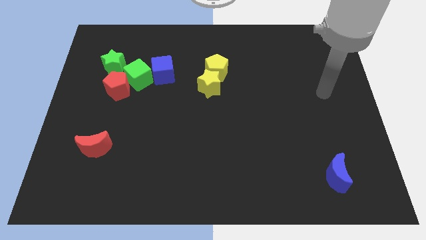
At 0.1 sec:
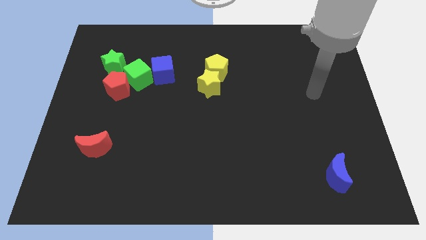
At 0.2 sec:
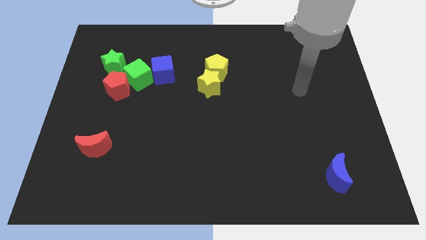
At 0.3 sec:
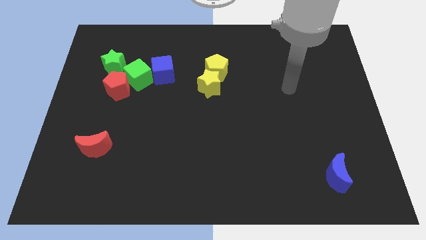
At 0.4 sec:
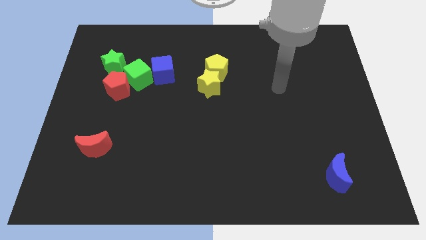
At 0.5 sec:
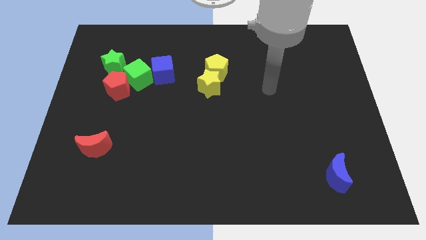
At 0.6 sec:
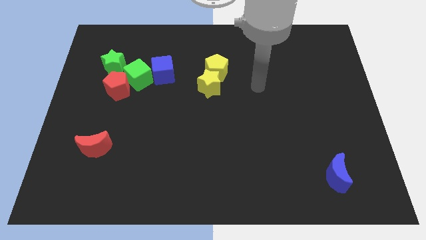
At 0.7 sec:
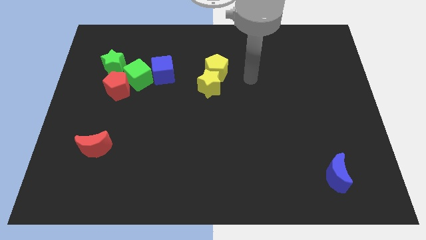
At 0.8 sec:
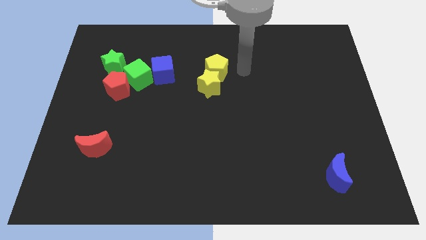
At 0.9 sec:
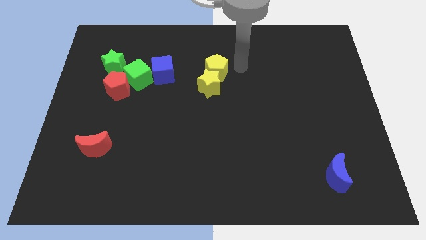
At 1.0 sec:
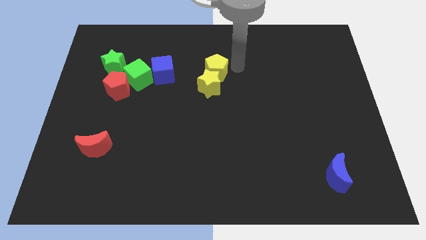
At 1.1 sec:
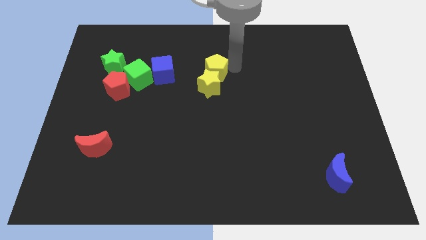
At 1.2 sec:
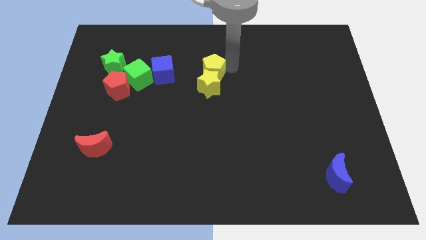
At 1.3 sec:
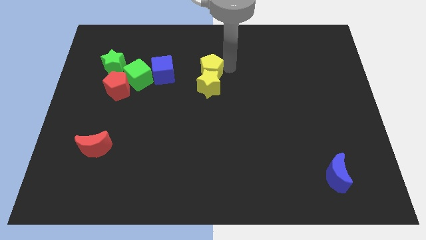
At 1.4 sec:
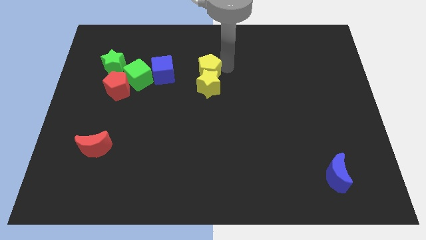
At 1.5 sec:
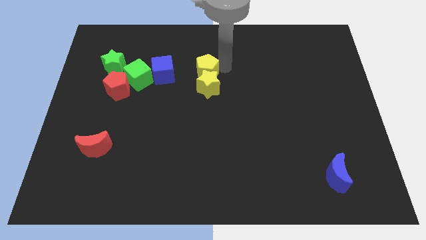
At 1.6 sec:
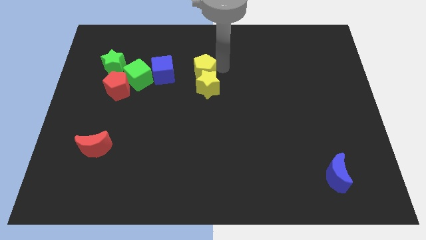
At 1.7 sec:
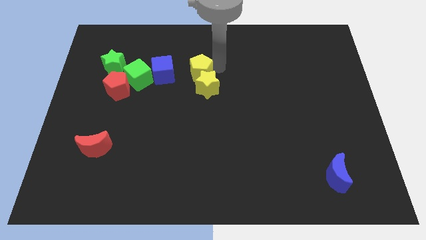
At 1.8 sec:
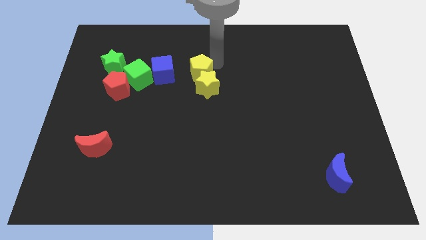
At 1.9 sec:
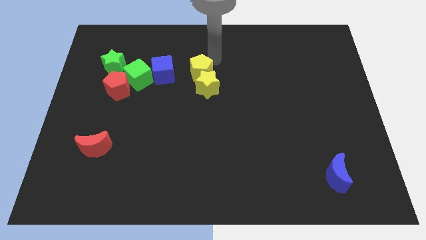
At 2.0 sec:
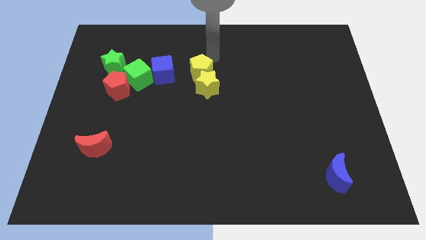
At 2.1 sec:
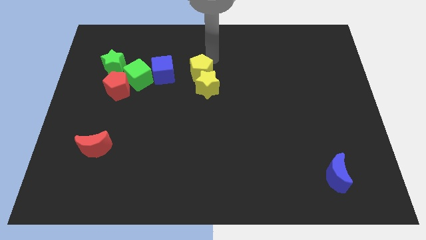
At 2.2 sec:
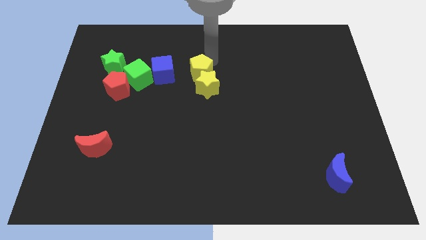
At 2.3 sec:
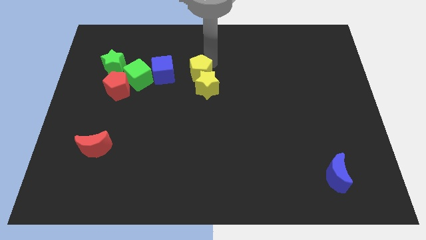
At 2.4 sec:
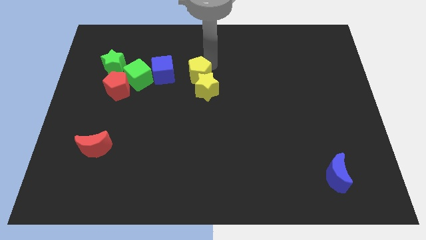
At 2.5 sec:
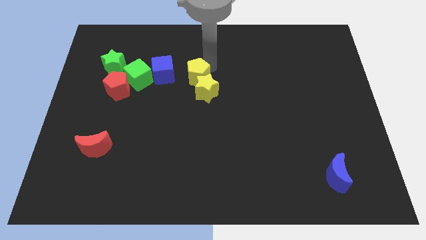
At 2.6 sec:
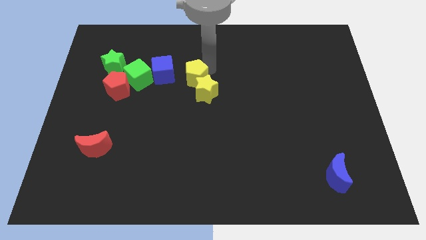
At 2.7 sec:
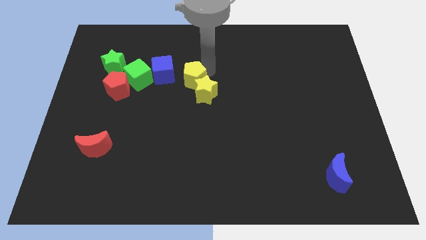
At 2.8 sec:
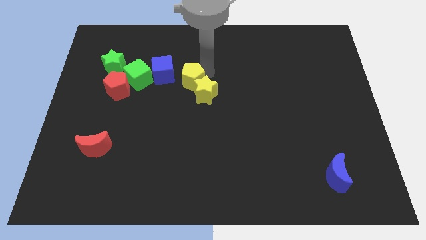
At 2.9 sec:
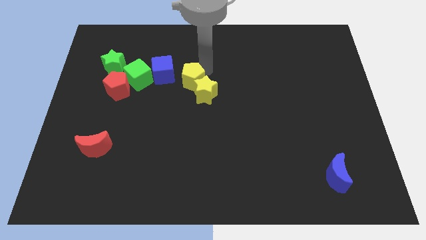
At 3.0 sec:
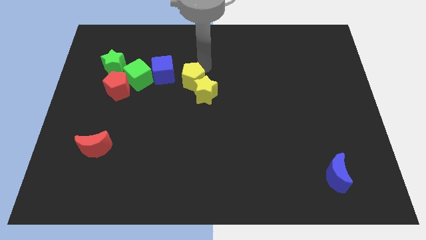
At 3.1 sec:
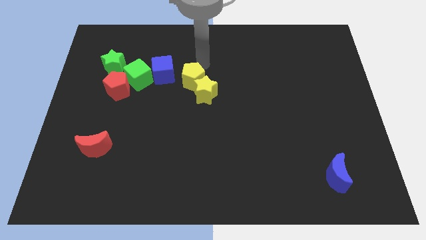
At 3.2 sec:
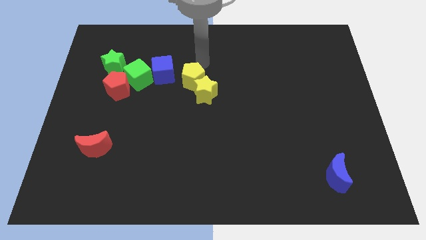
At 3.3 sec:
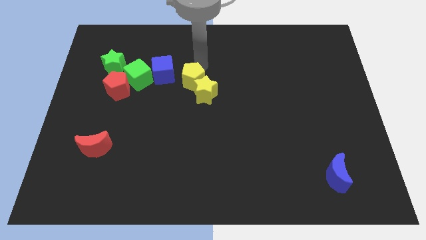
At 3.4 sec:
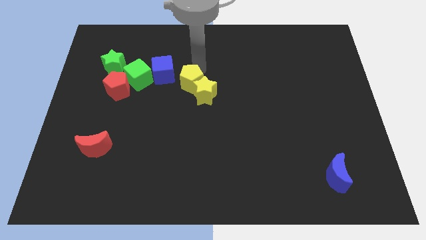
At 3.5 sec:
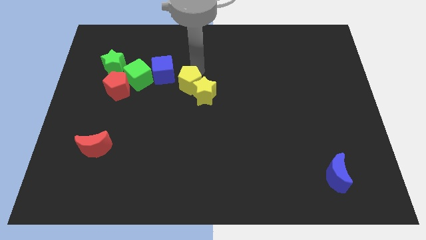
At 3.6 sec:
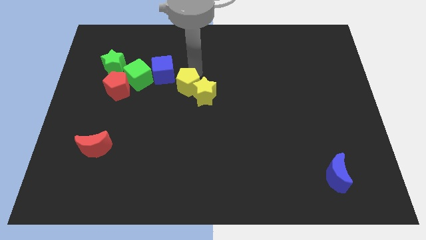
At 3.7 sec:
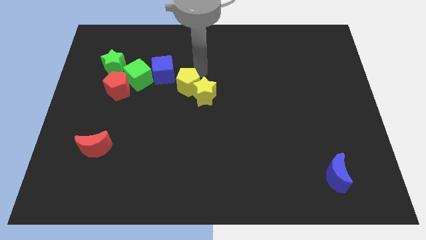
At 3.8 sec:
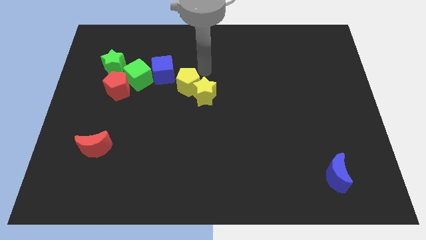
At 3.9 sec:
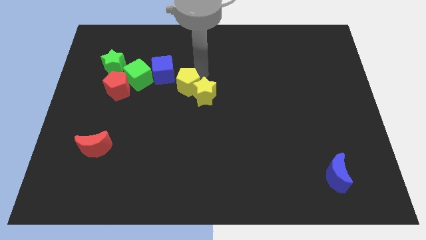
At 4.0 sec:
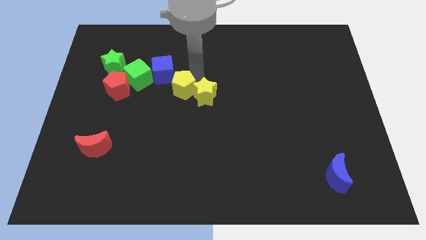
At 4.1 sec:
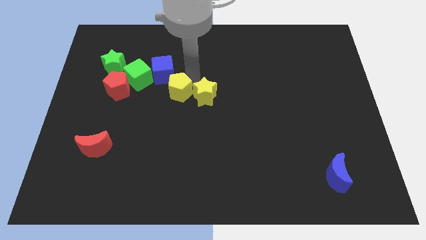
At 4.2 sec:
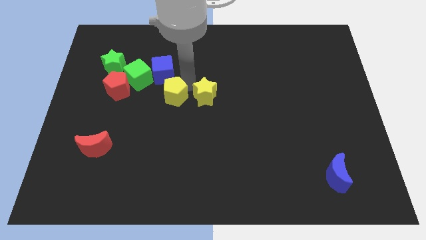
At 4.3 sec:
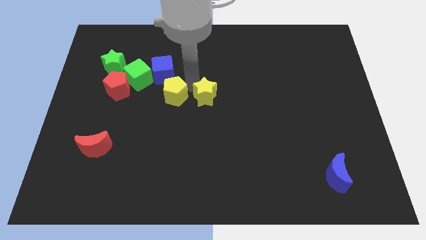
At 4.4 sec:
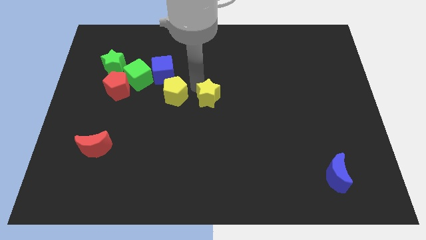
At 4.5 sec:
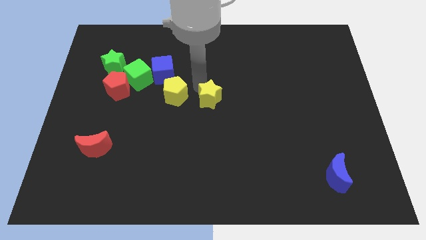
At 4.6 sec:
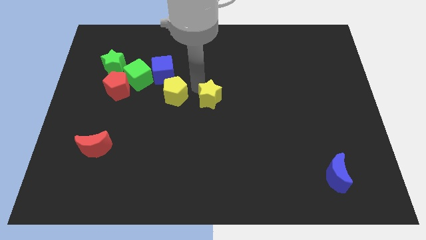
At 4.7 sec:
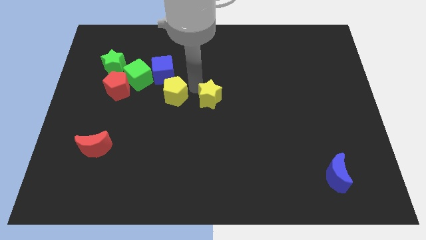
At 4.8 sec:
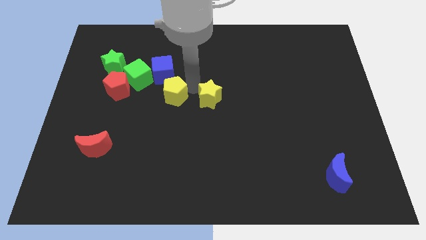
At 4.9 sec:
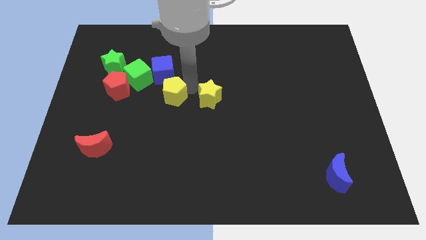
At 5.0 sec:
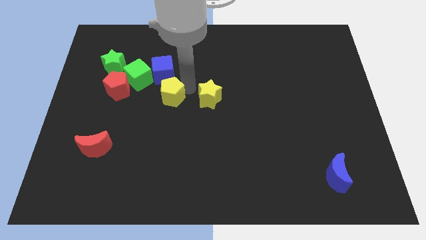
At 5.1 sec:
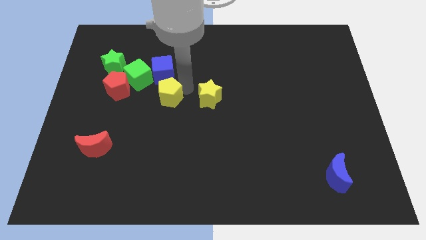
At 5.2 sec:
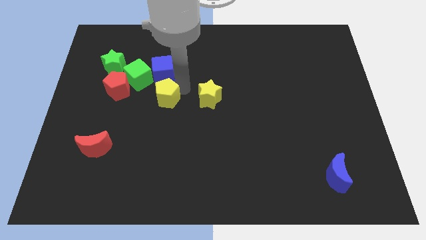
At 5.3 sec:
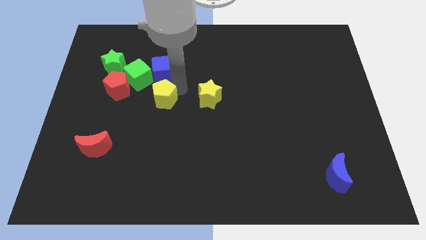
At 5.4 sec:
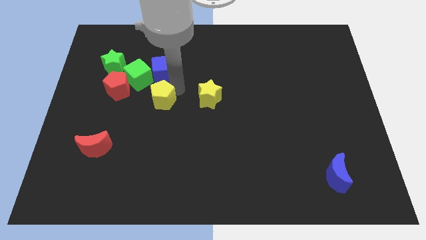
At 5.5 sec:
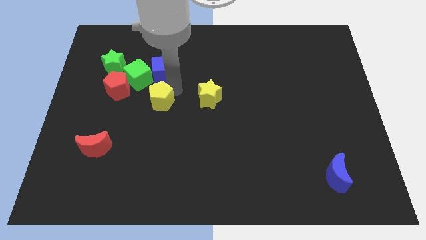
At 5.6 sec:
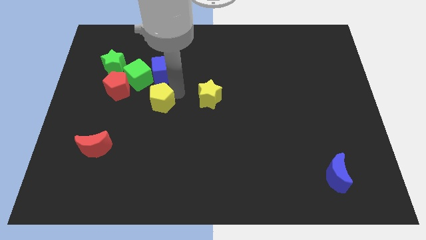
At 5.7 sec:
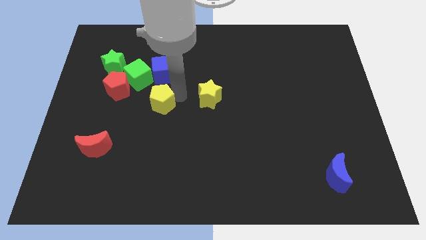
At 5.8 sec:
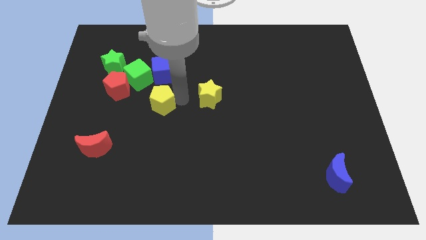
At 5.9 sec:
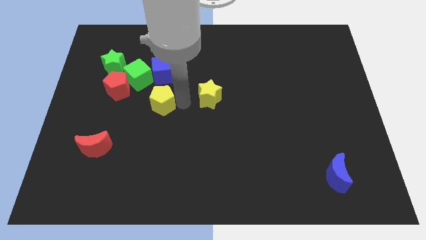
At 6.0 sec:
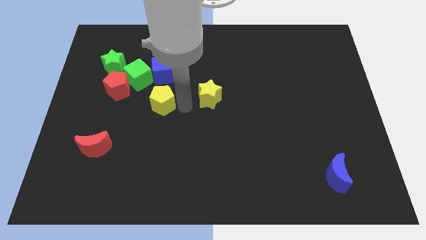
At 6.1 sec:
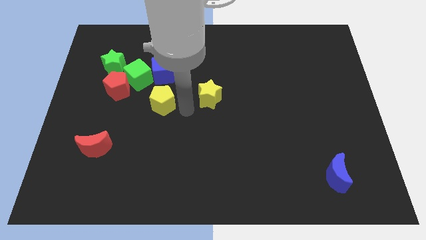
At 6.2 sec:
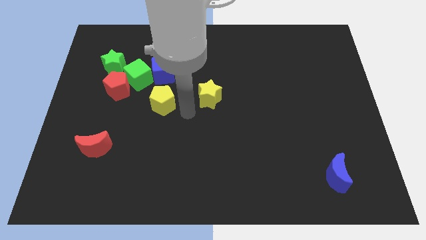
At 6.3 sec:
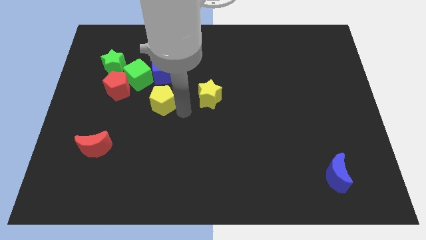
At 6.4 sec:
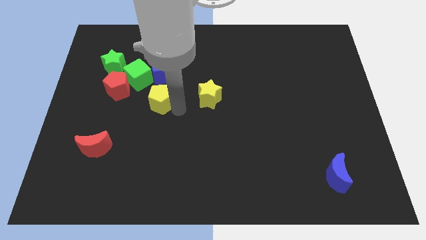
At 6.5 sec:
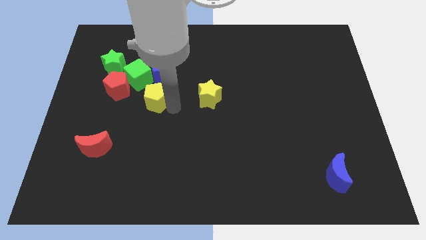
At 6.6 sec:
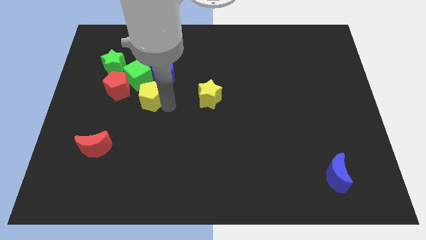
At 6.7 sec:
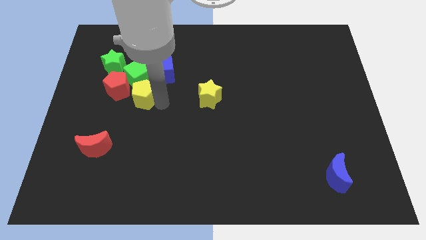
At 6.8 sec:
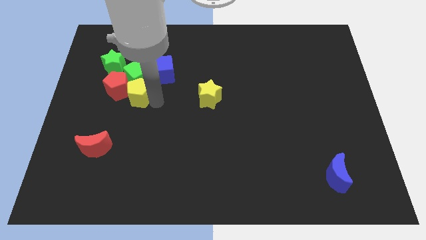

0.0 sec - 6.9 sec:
put the yellow pentagon close to the red pentagon
